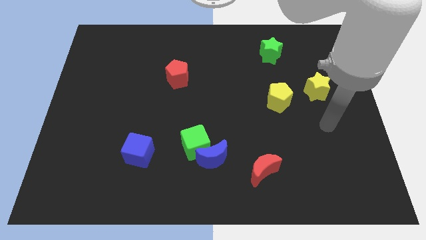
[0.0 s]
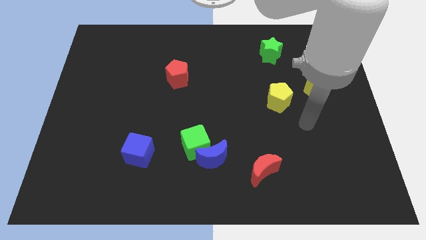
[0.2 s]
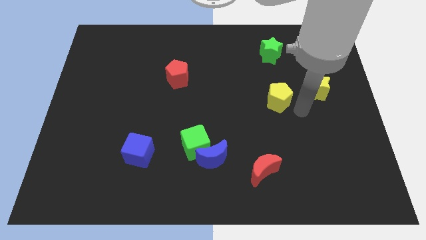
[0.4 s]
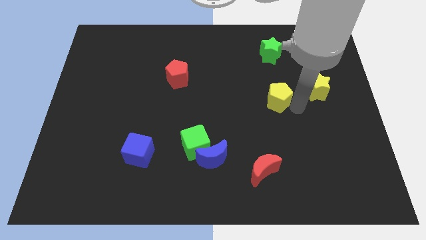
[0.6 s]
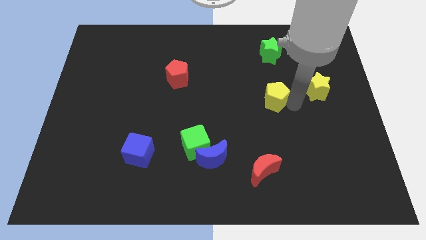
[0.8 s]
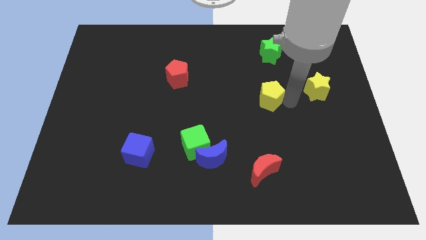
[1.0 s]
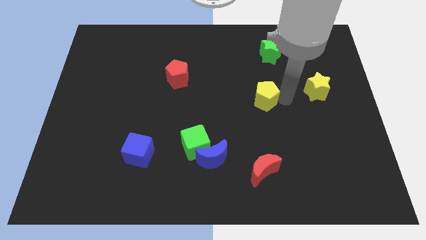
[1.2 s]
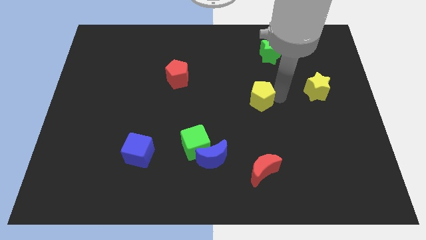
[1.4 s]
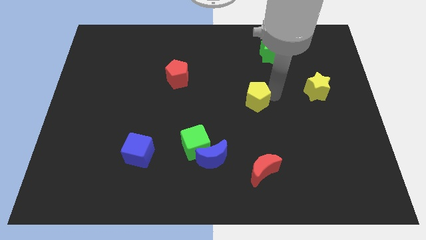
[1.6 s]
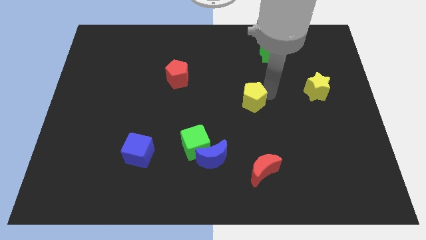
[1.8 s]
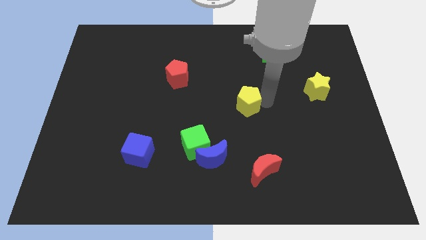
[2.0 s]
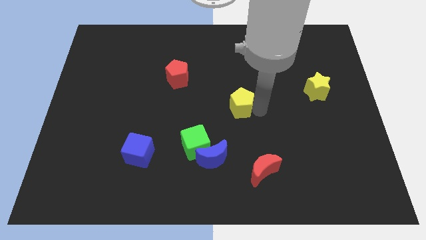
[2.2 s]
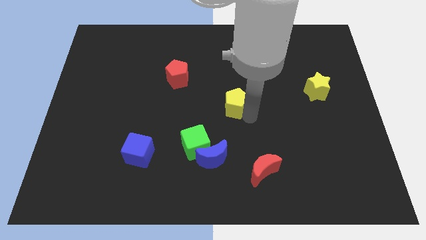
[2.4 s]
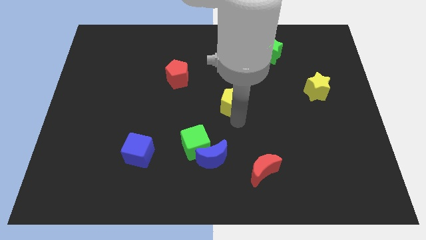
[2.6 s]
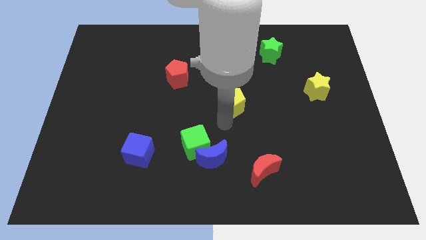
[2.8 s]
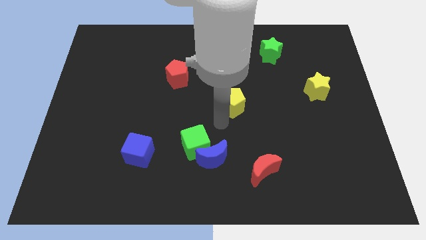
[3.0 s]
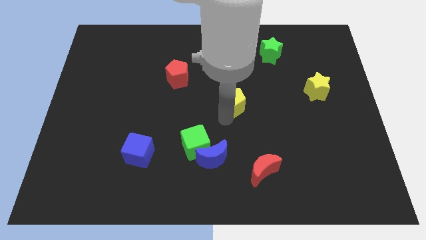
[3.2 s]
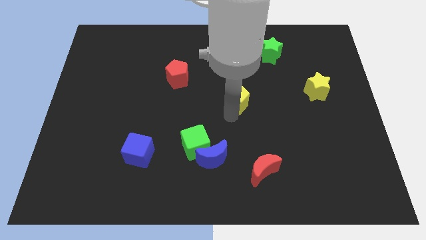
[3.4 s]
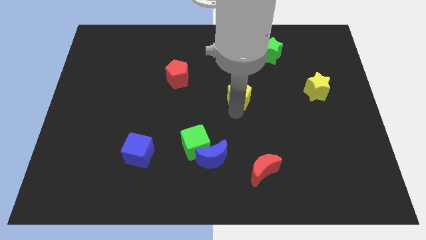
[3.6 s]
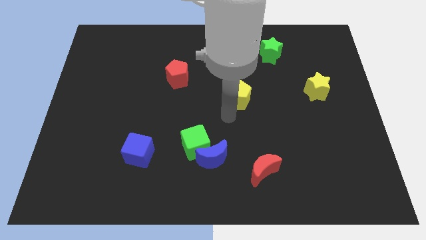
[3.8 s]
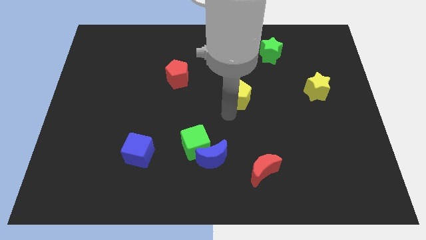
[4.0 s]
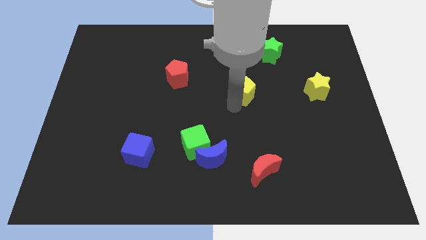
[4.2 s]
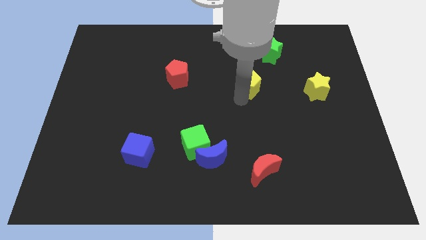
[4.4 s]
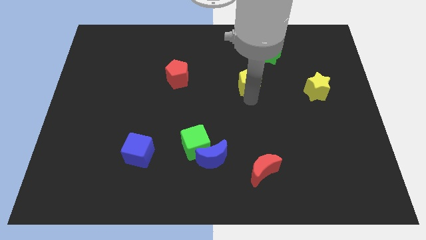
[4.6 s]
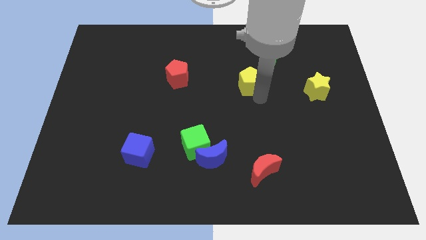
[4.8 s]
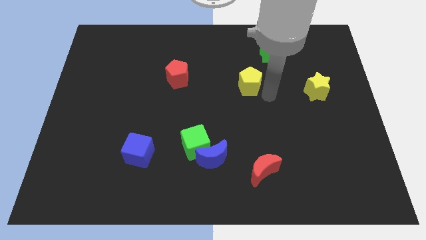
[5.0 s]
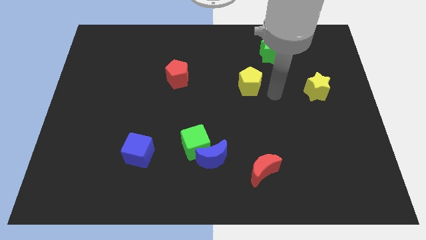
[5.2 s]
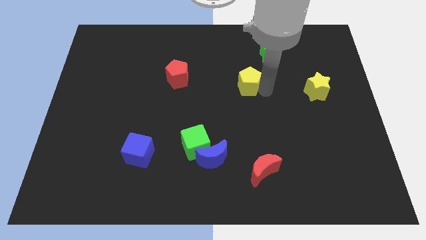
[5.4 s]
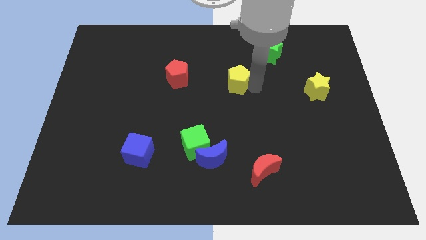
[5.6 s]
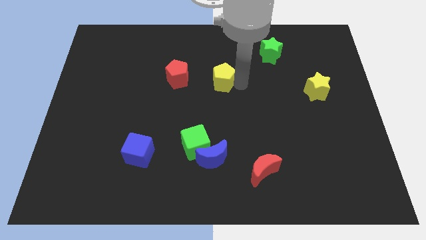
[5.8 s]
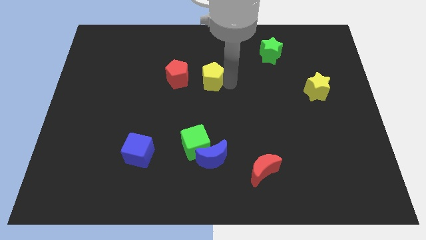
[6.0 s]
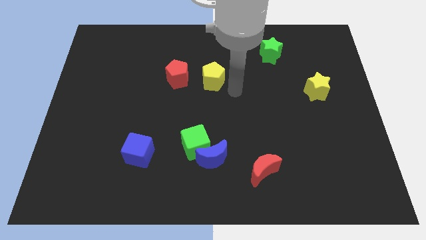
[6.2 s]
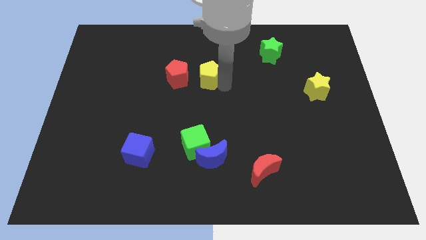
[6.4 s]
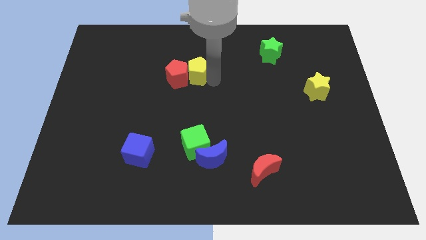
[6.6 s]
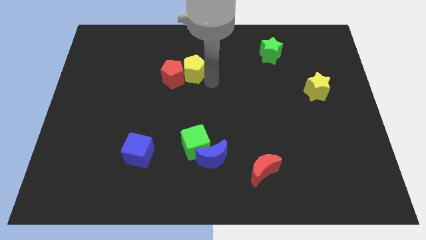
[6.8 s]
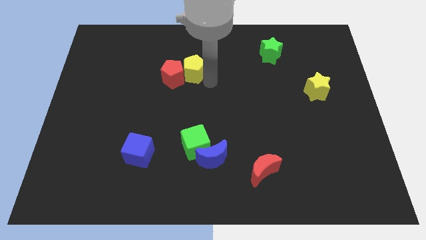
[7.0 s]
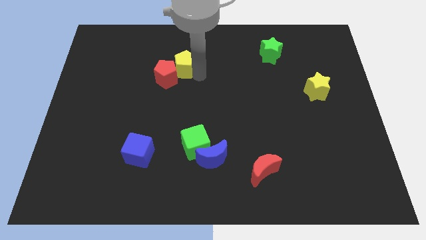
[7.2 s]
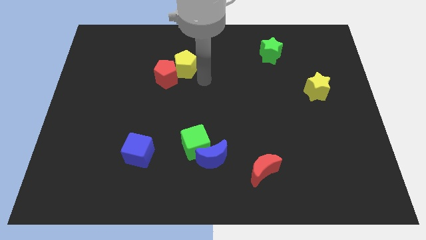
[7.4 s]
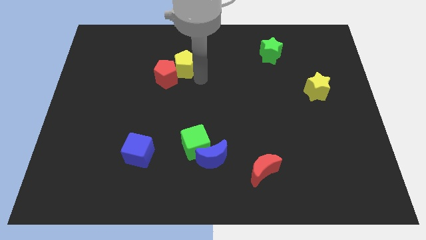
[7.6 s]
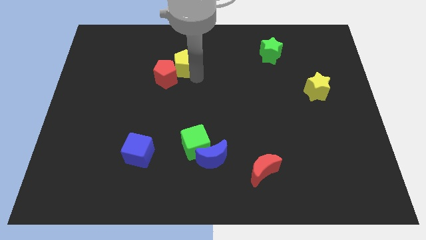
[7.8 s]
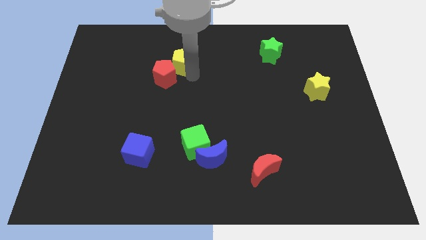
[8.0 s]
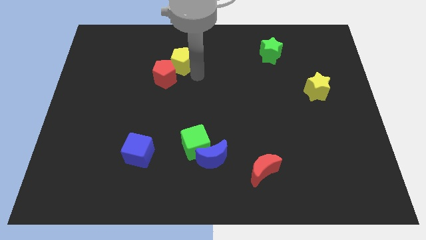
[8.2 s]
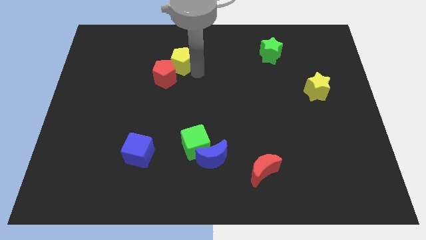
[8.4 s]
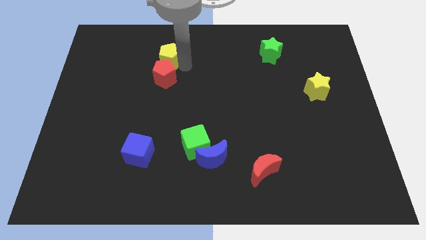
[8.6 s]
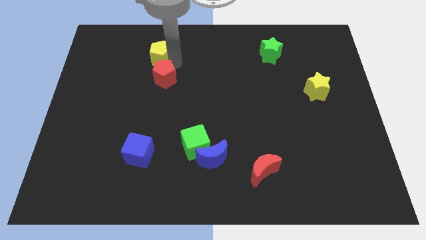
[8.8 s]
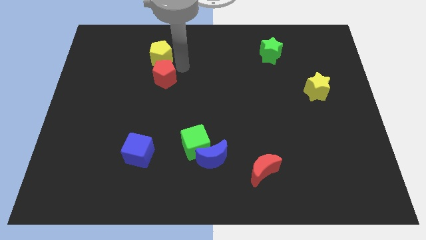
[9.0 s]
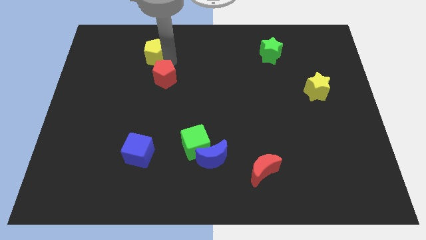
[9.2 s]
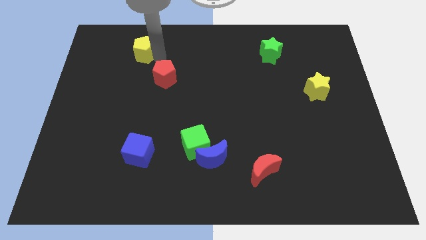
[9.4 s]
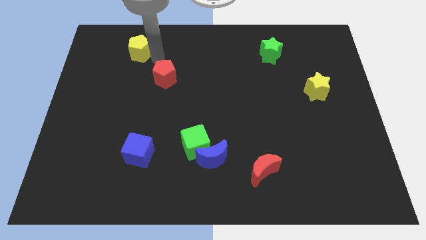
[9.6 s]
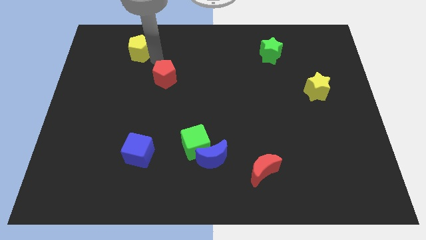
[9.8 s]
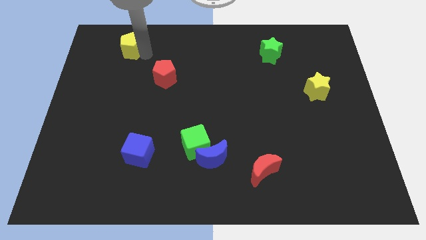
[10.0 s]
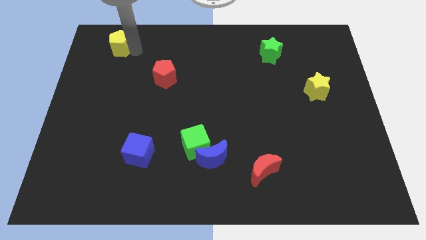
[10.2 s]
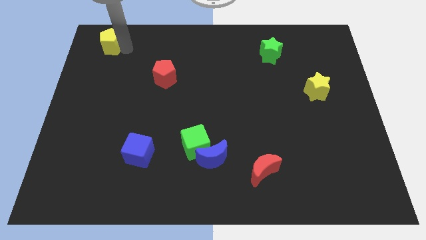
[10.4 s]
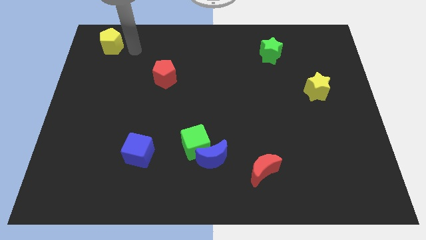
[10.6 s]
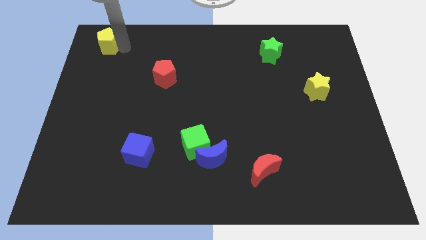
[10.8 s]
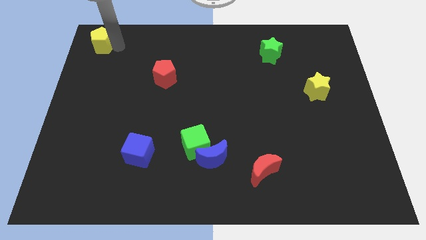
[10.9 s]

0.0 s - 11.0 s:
put the yellow pentagon to the top left of the board

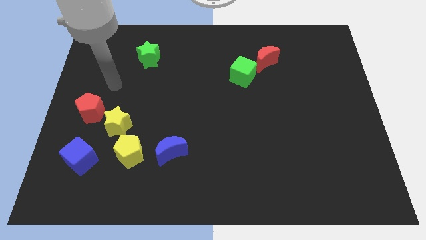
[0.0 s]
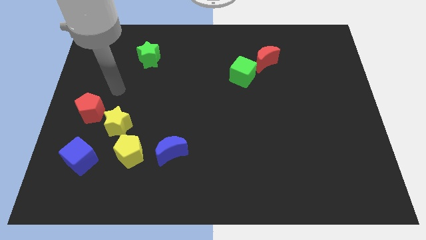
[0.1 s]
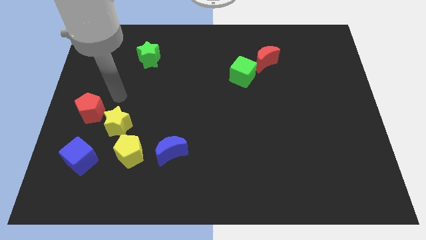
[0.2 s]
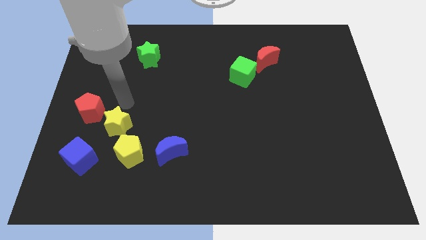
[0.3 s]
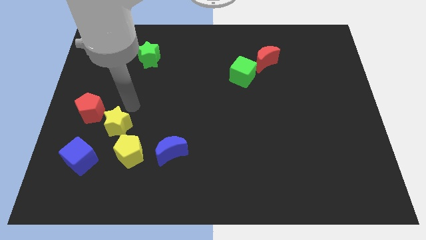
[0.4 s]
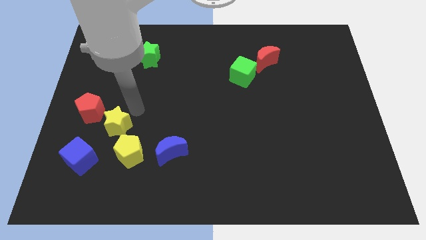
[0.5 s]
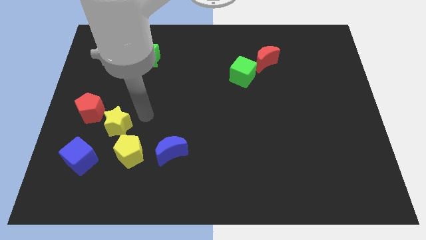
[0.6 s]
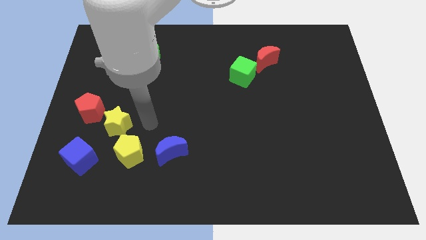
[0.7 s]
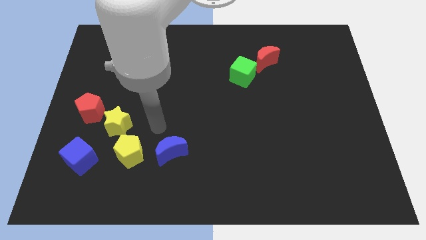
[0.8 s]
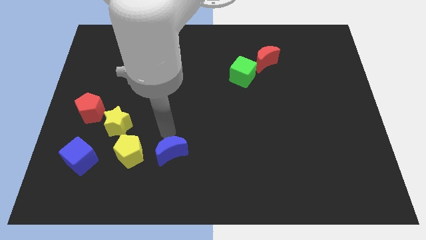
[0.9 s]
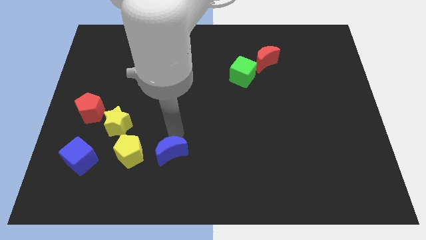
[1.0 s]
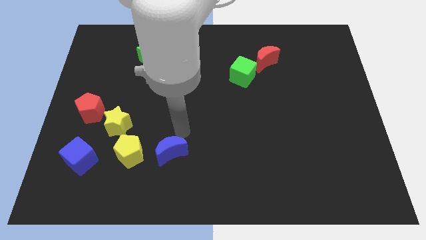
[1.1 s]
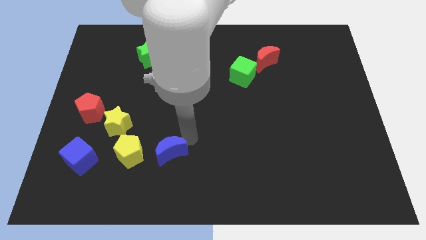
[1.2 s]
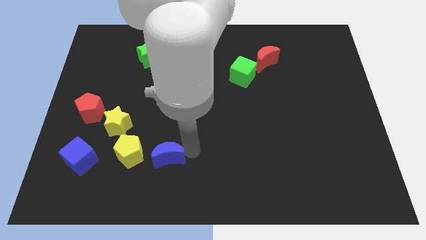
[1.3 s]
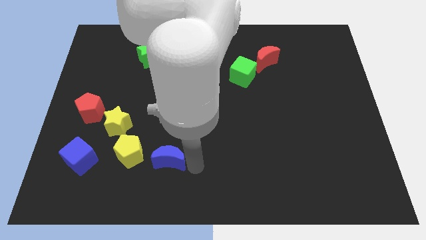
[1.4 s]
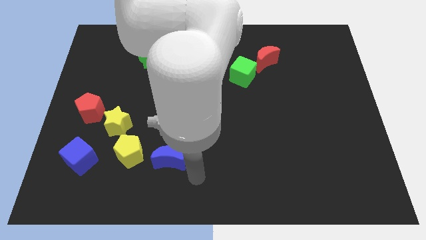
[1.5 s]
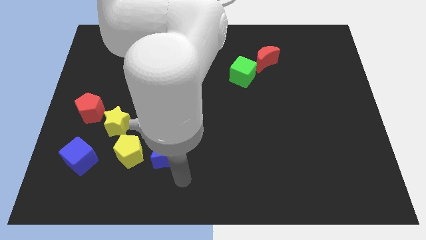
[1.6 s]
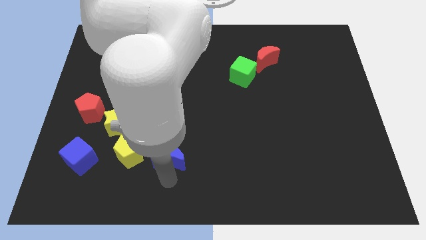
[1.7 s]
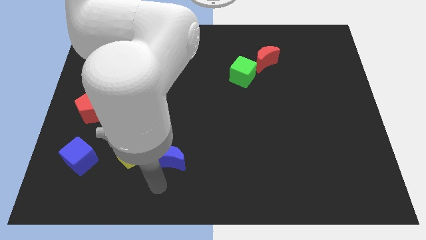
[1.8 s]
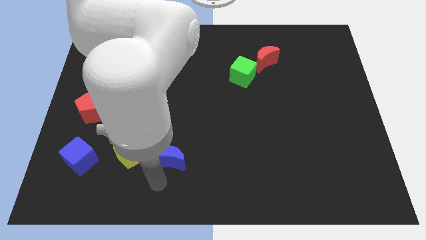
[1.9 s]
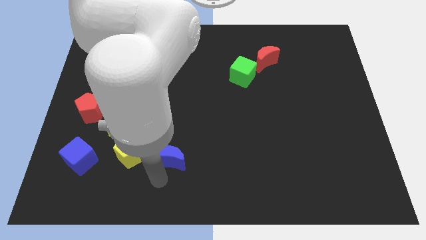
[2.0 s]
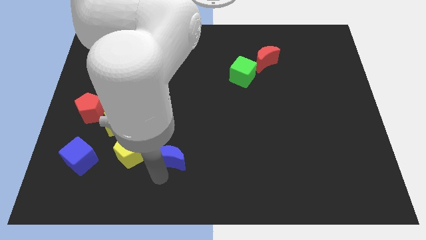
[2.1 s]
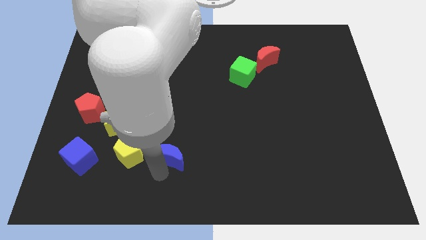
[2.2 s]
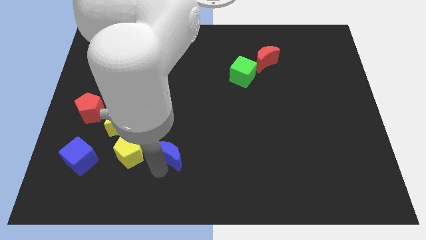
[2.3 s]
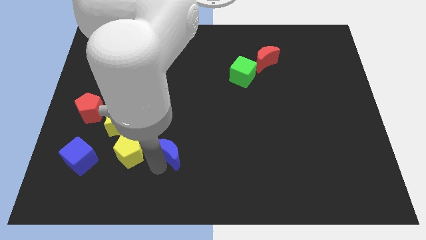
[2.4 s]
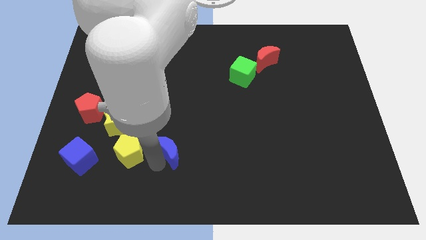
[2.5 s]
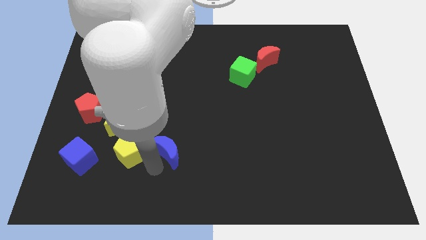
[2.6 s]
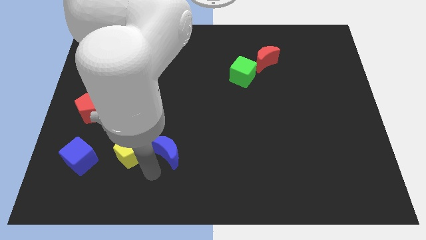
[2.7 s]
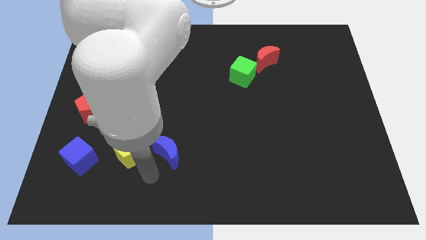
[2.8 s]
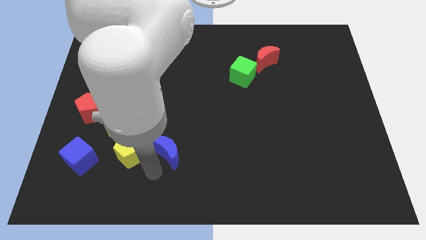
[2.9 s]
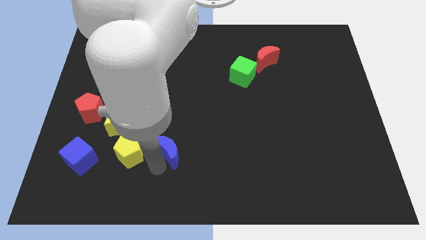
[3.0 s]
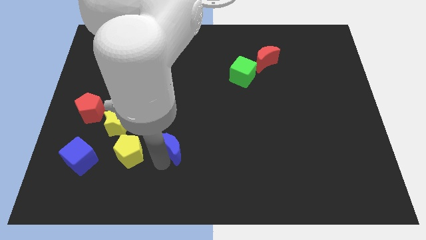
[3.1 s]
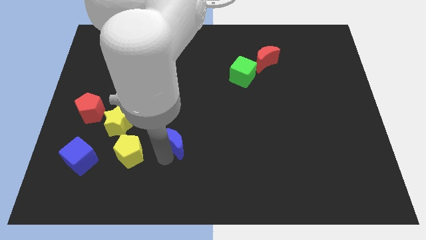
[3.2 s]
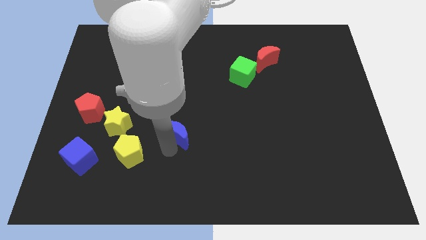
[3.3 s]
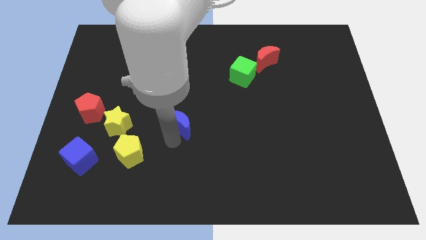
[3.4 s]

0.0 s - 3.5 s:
move the blue moon to the center
